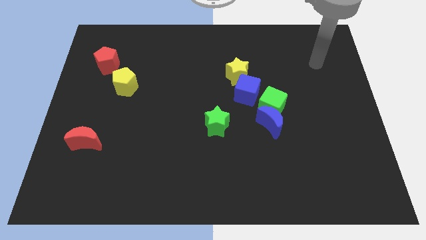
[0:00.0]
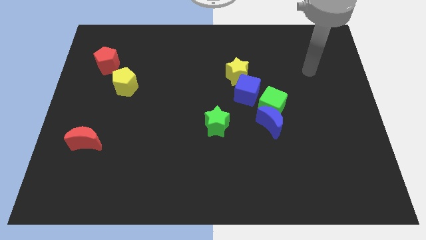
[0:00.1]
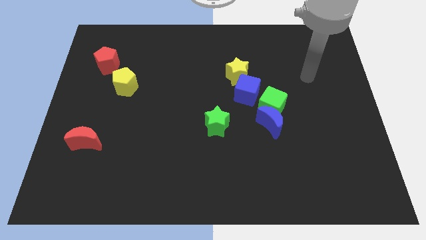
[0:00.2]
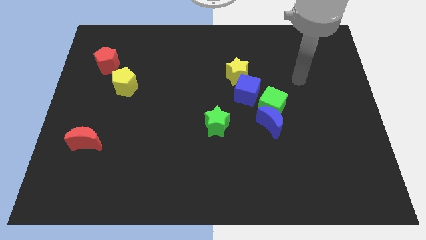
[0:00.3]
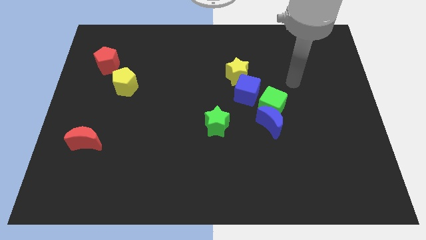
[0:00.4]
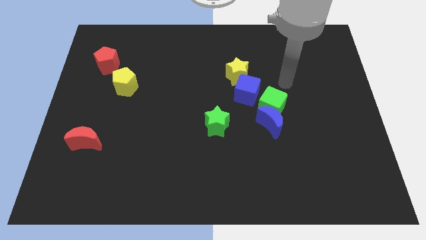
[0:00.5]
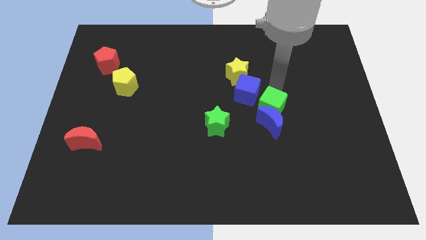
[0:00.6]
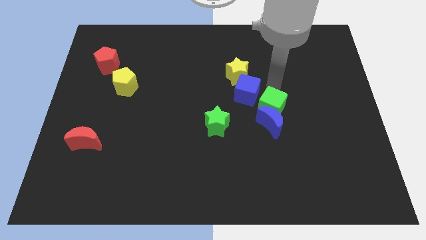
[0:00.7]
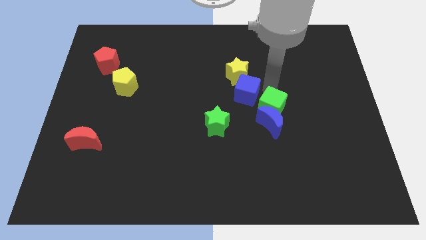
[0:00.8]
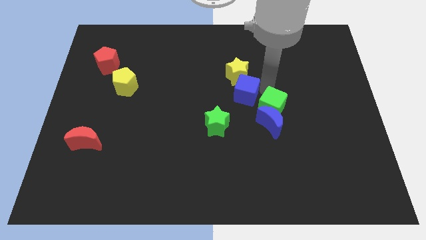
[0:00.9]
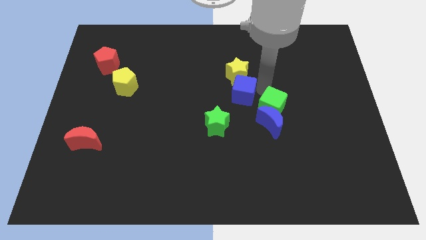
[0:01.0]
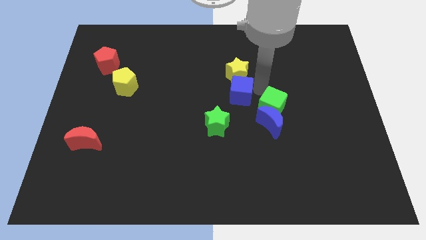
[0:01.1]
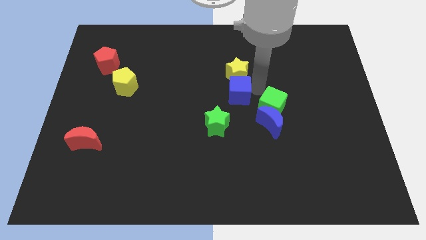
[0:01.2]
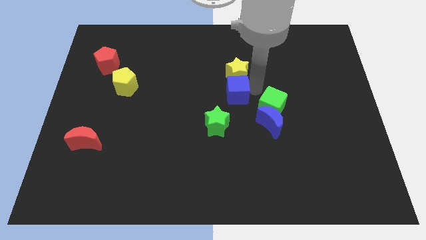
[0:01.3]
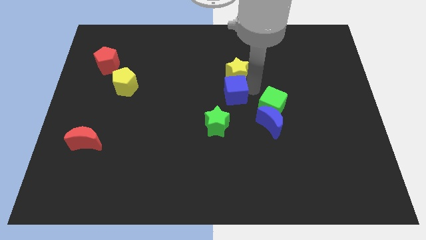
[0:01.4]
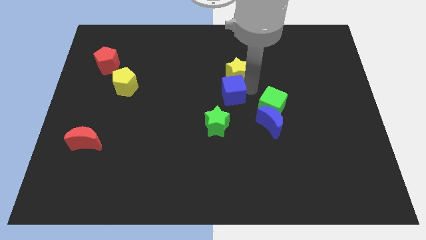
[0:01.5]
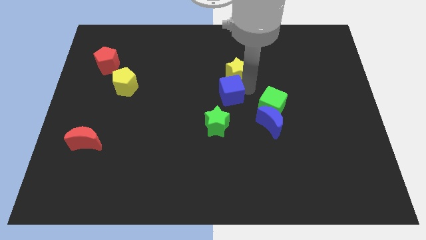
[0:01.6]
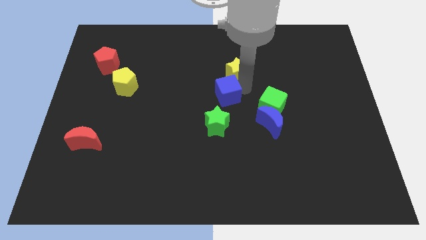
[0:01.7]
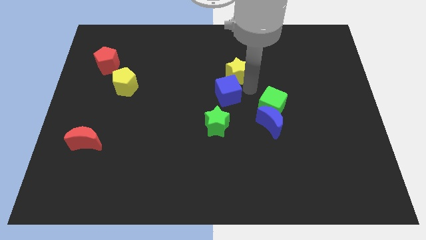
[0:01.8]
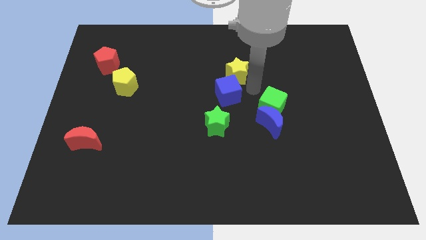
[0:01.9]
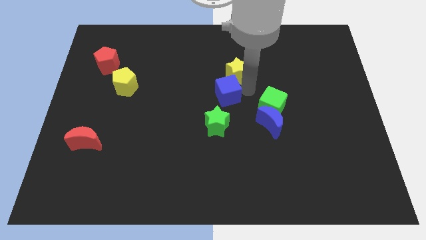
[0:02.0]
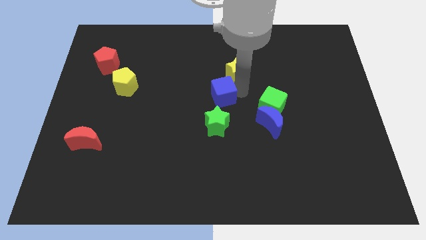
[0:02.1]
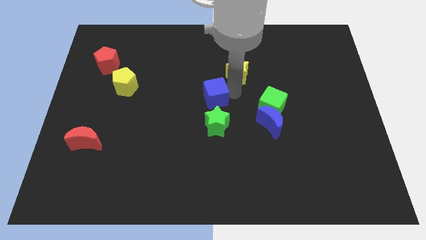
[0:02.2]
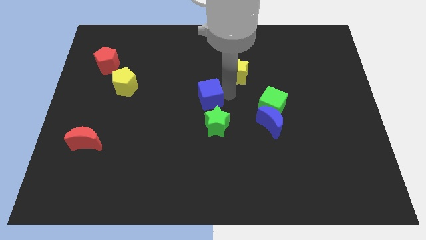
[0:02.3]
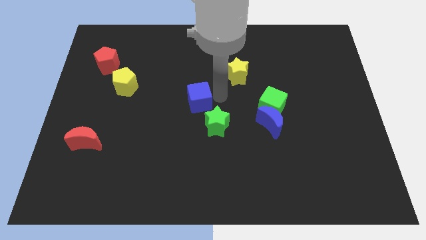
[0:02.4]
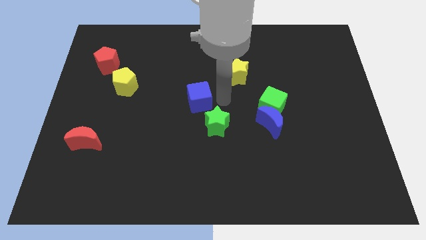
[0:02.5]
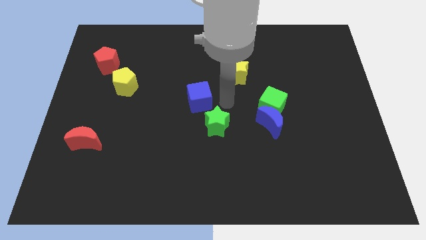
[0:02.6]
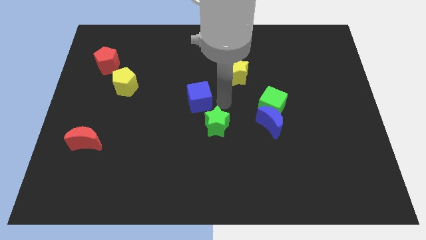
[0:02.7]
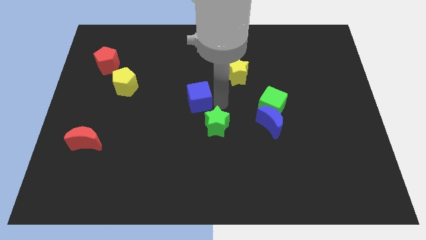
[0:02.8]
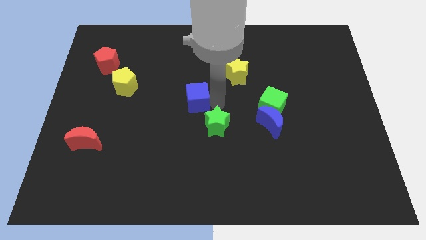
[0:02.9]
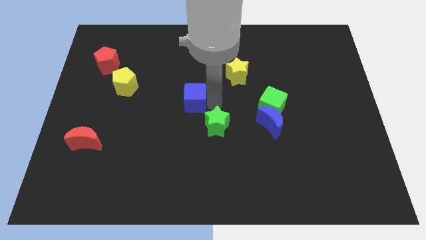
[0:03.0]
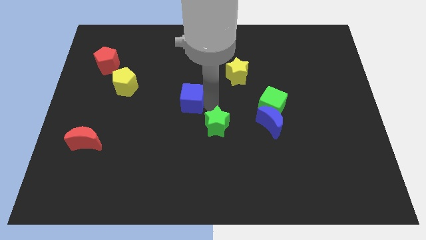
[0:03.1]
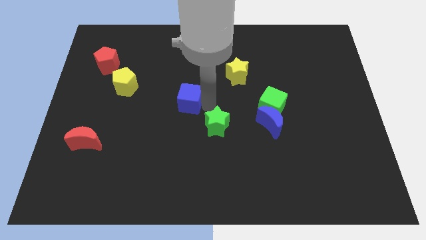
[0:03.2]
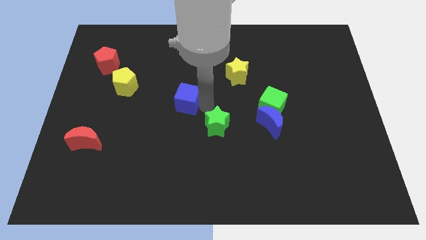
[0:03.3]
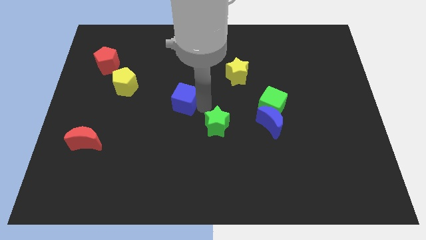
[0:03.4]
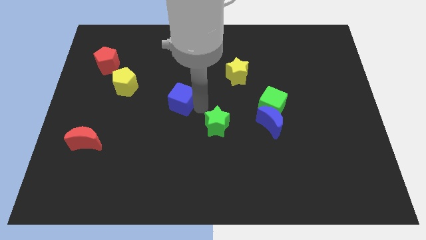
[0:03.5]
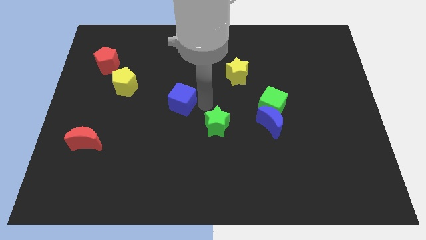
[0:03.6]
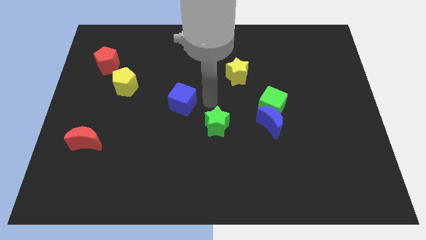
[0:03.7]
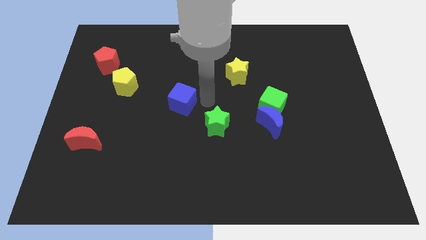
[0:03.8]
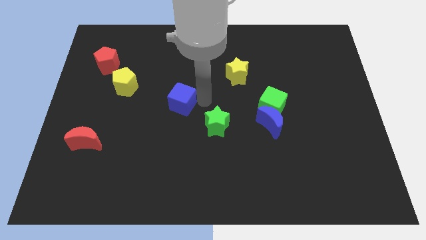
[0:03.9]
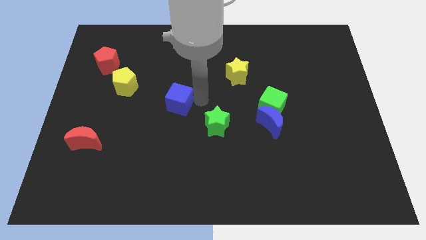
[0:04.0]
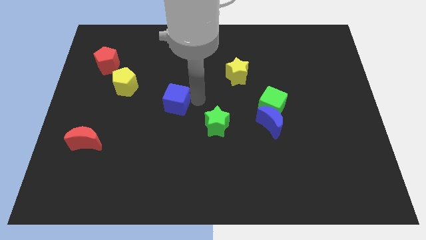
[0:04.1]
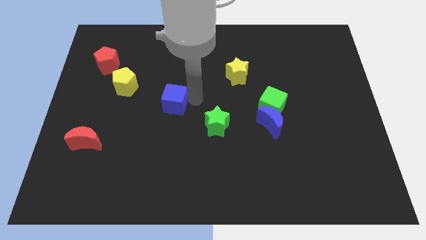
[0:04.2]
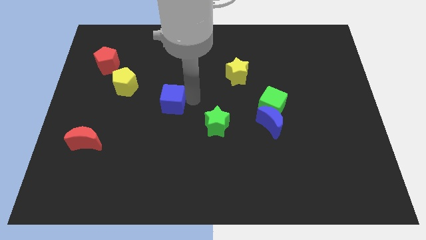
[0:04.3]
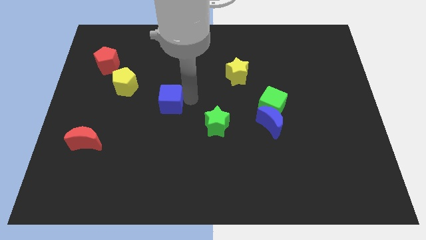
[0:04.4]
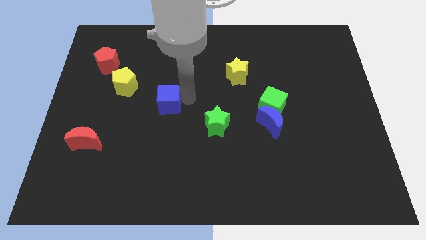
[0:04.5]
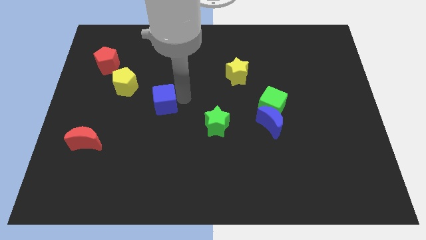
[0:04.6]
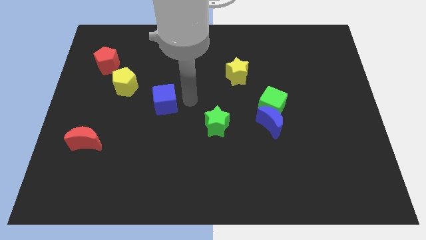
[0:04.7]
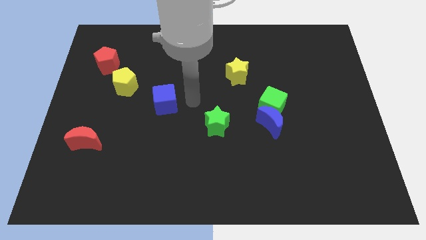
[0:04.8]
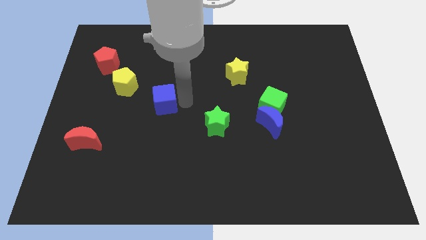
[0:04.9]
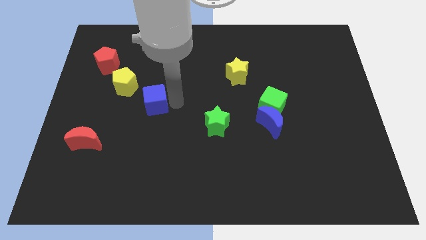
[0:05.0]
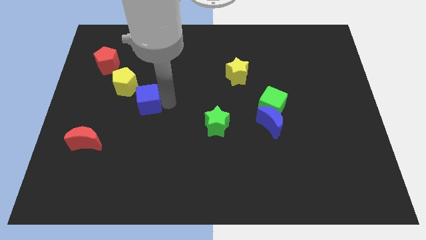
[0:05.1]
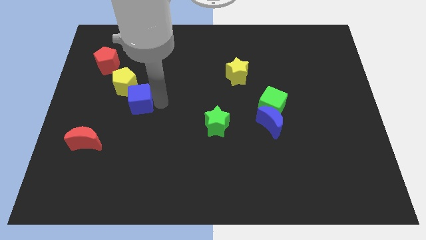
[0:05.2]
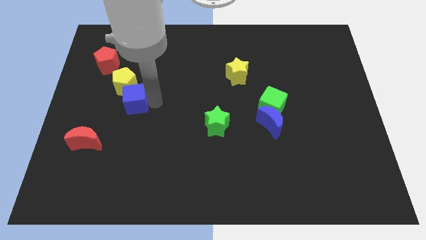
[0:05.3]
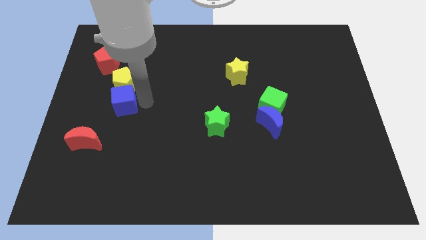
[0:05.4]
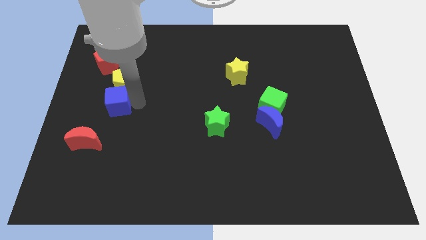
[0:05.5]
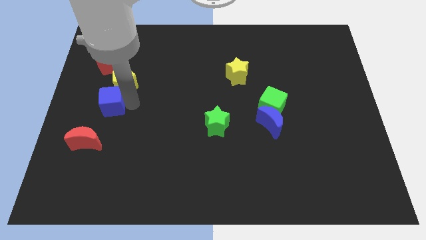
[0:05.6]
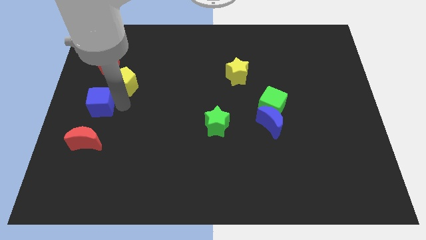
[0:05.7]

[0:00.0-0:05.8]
slide the blue cube to the left side of the board

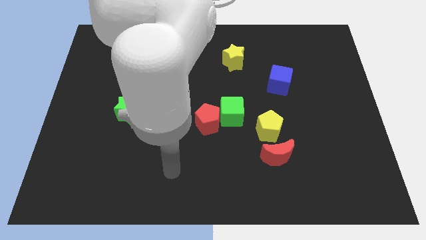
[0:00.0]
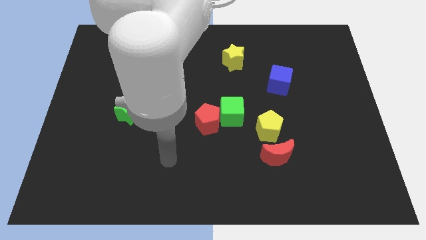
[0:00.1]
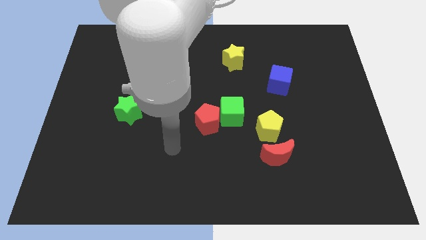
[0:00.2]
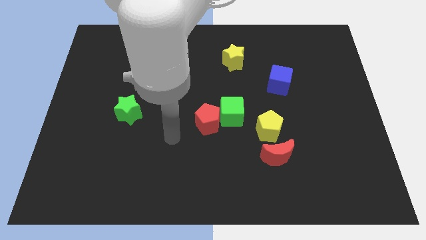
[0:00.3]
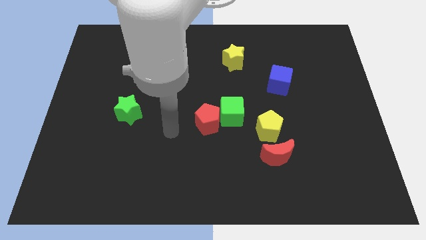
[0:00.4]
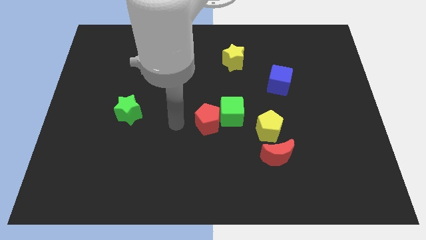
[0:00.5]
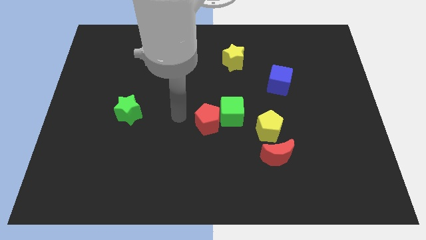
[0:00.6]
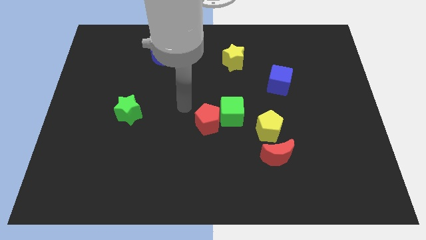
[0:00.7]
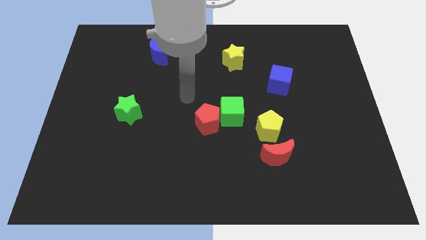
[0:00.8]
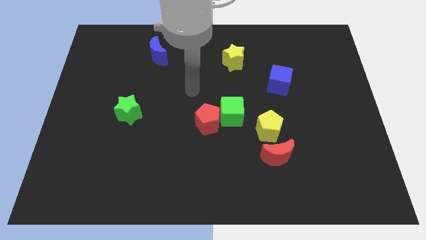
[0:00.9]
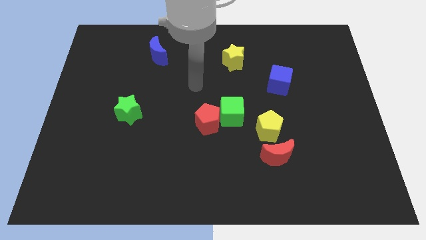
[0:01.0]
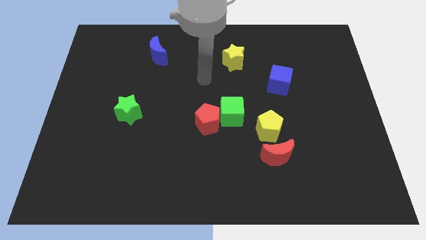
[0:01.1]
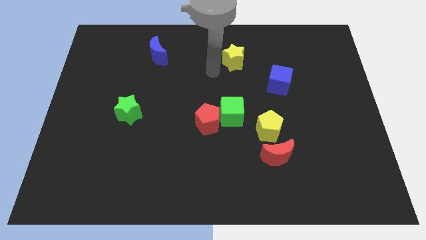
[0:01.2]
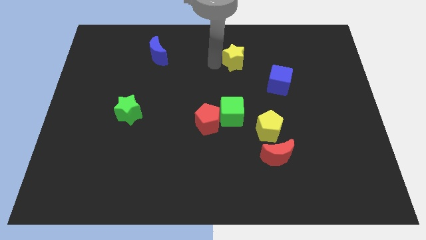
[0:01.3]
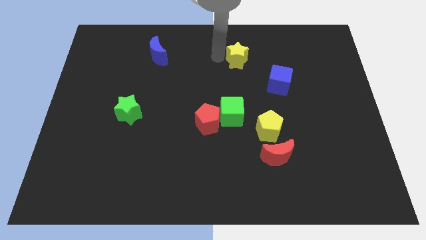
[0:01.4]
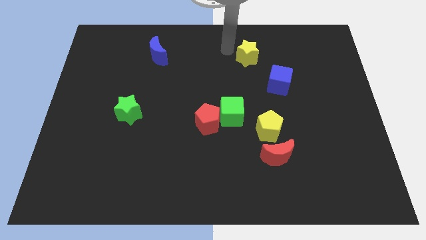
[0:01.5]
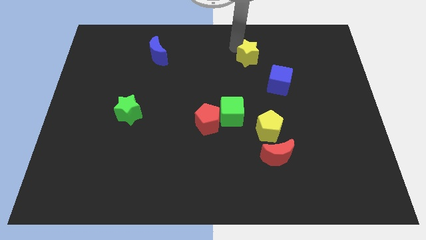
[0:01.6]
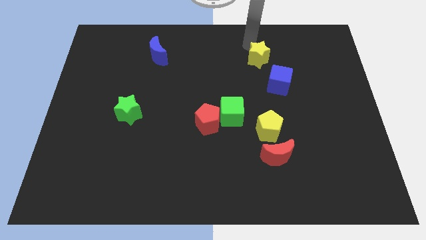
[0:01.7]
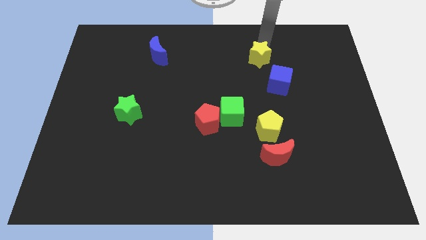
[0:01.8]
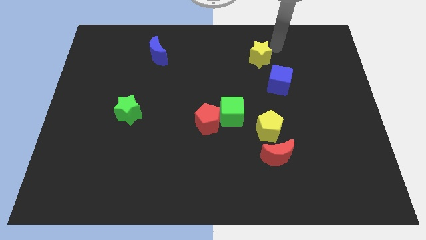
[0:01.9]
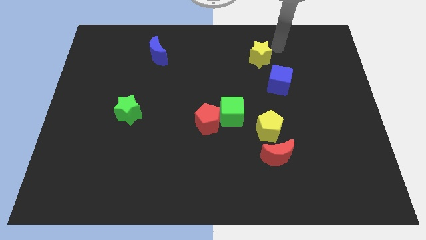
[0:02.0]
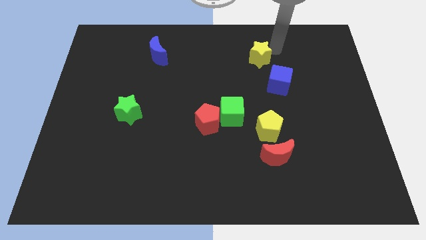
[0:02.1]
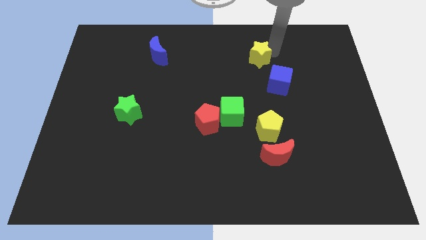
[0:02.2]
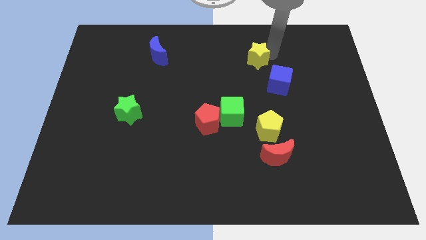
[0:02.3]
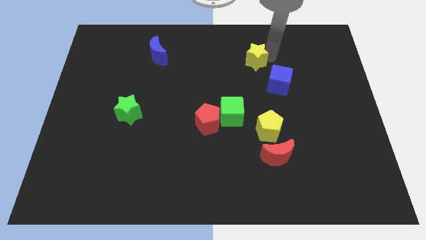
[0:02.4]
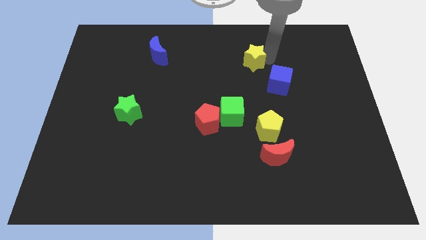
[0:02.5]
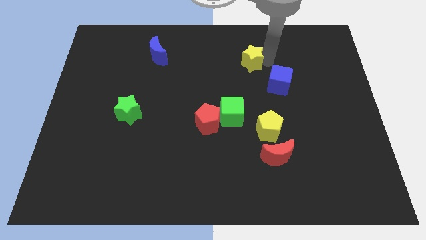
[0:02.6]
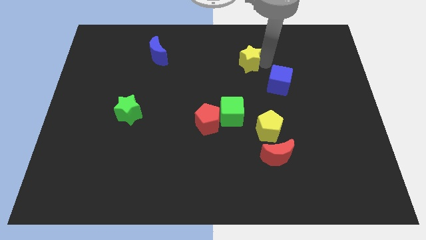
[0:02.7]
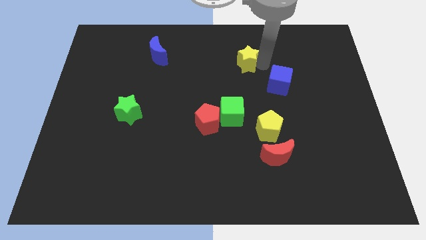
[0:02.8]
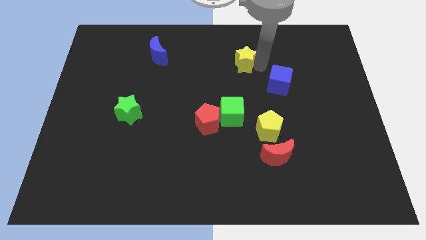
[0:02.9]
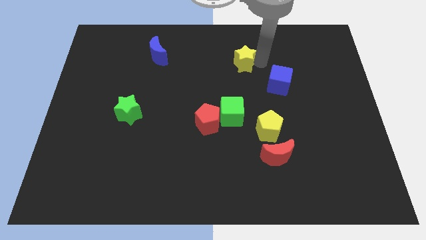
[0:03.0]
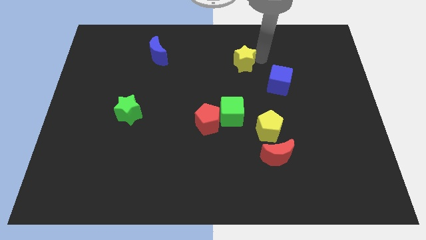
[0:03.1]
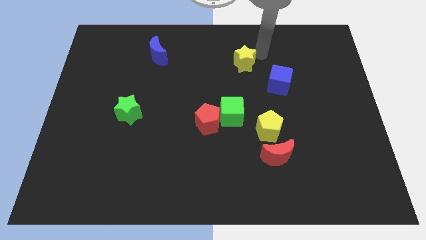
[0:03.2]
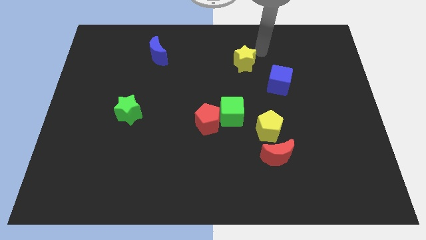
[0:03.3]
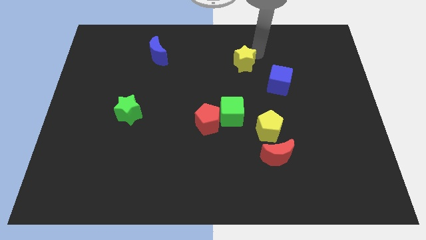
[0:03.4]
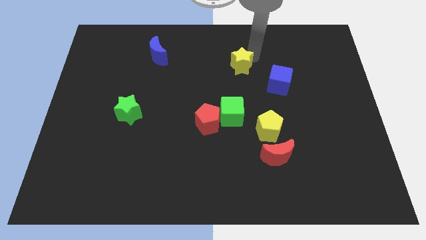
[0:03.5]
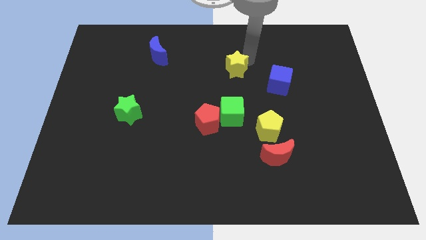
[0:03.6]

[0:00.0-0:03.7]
slide the yellow star to the center
